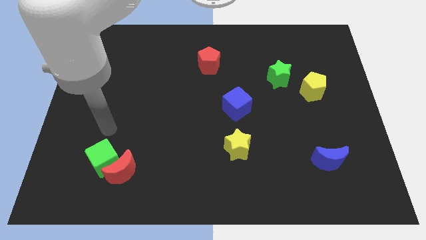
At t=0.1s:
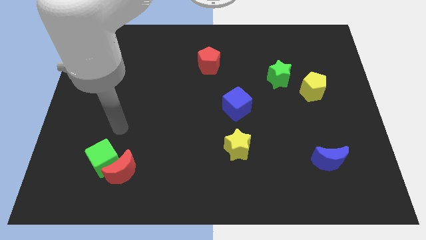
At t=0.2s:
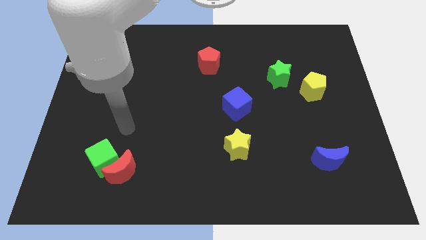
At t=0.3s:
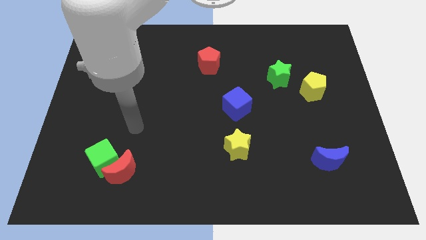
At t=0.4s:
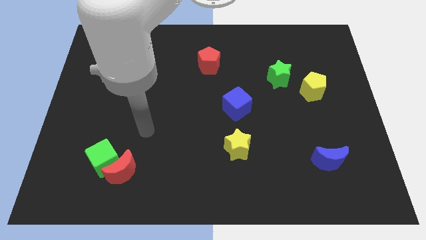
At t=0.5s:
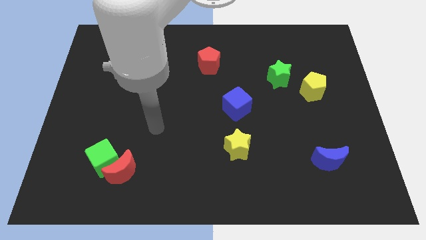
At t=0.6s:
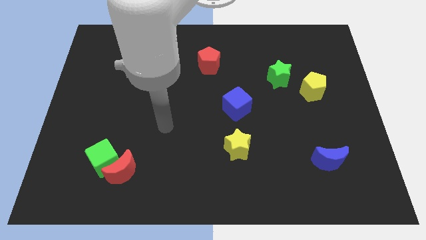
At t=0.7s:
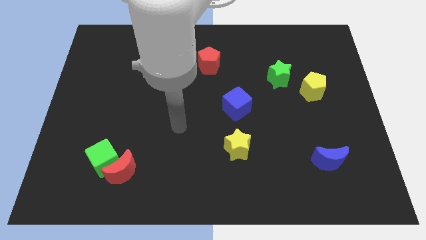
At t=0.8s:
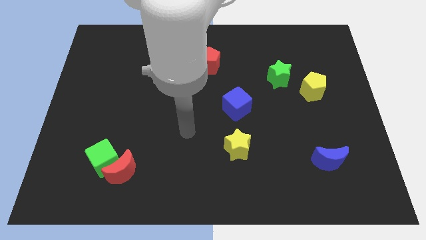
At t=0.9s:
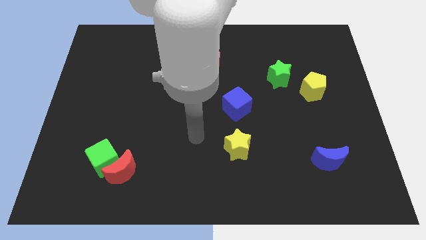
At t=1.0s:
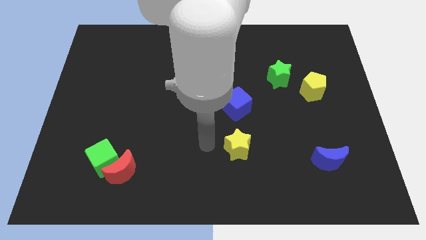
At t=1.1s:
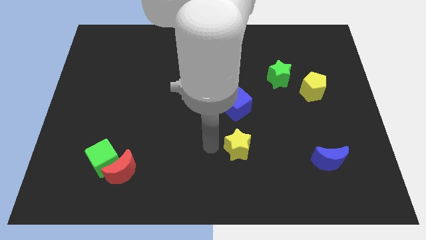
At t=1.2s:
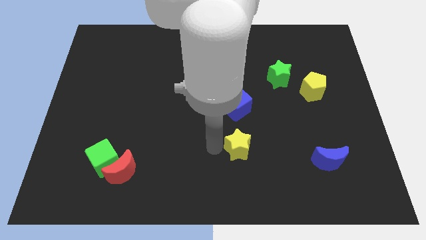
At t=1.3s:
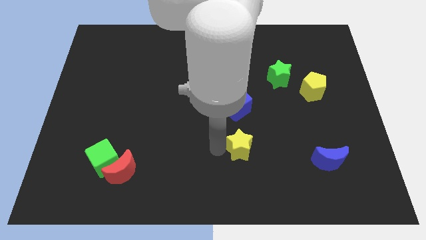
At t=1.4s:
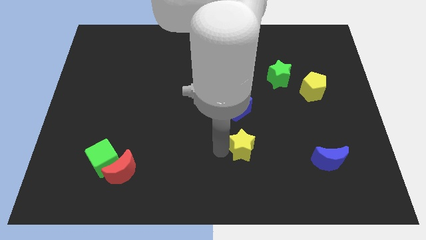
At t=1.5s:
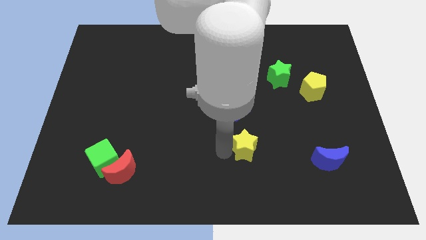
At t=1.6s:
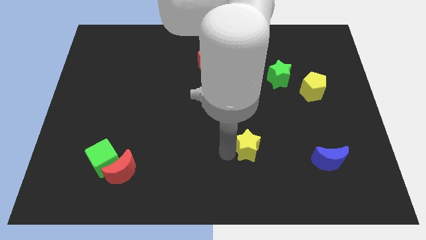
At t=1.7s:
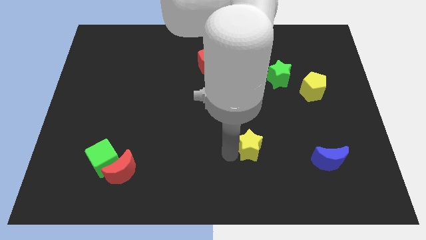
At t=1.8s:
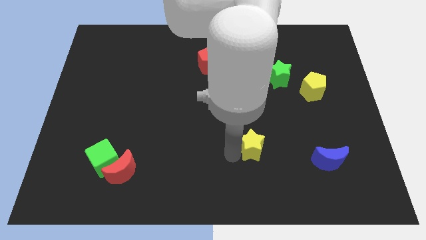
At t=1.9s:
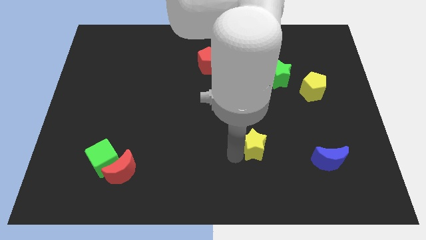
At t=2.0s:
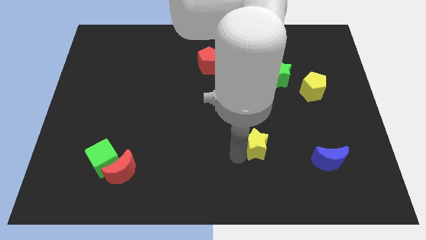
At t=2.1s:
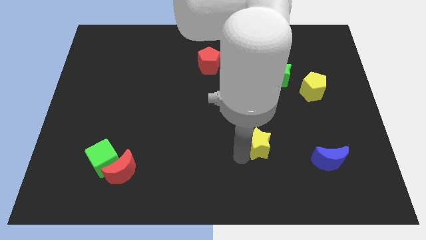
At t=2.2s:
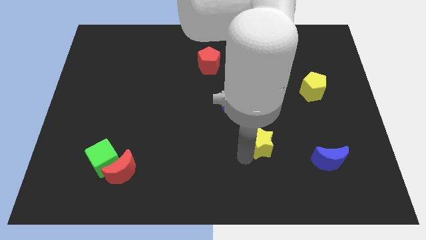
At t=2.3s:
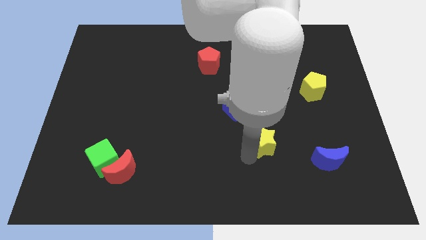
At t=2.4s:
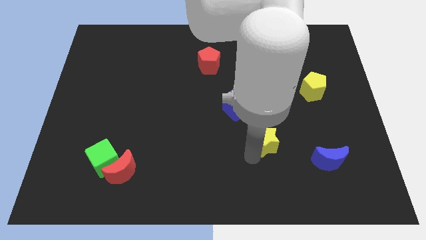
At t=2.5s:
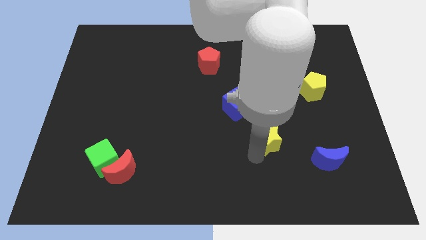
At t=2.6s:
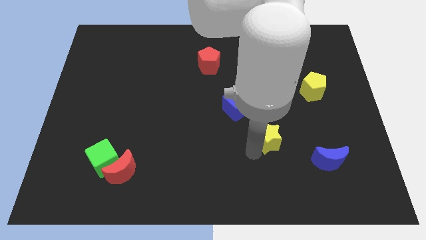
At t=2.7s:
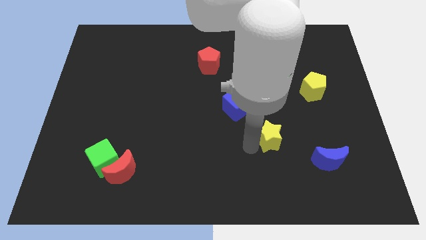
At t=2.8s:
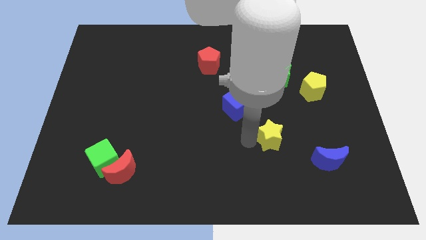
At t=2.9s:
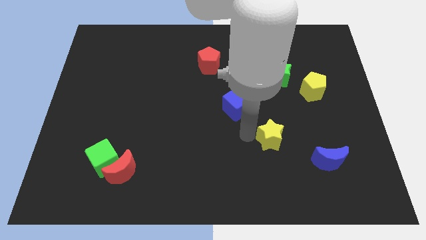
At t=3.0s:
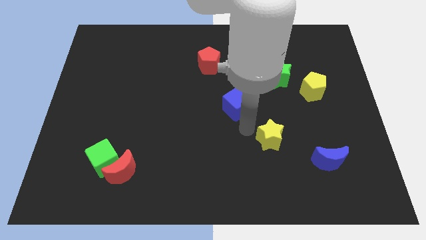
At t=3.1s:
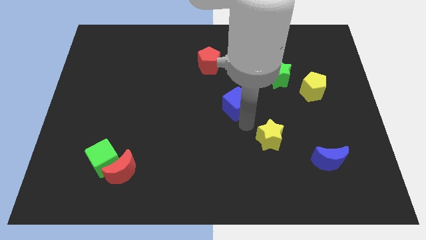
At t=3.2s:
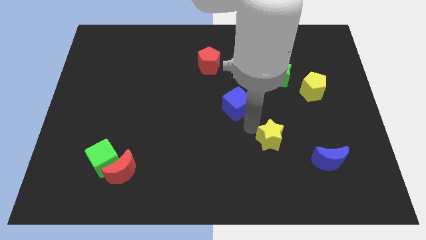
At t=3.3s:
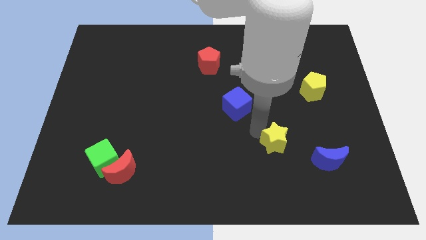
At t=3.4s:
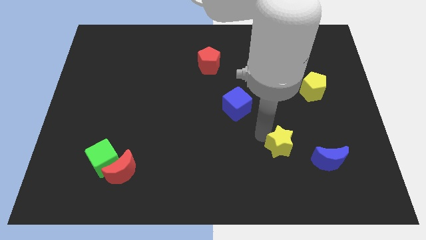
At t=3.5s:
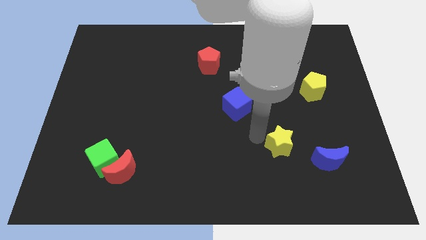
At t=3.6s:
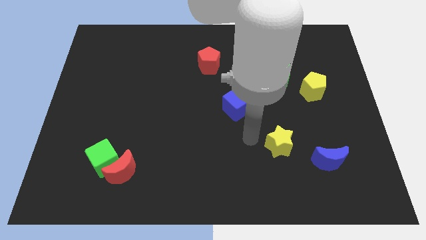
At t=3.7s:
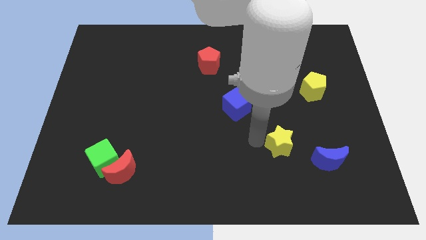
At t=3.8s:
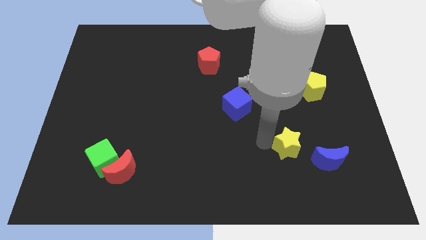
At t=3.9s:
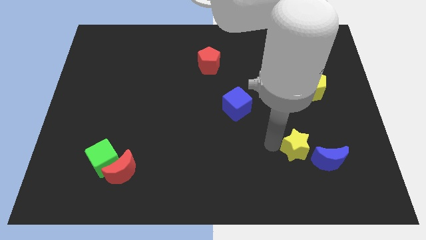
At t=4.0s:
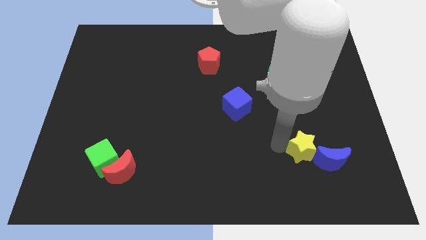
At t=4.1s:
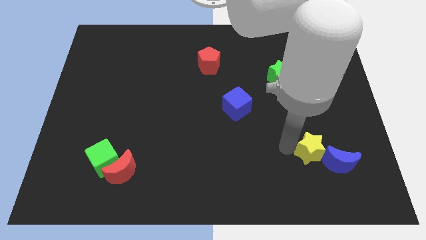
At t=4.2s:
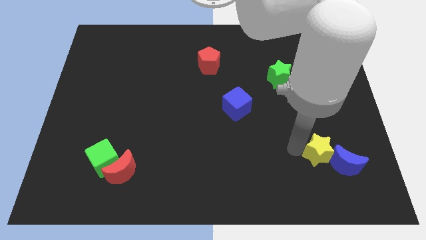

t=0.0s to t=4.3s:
put the yellow star close to the blue moon

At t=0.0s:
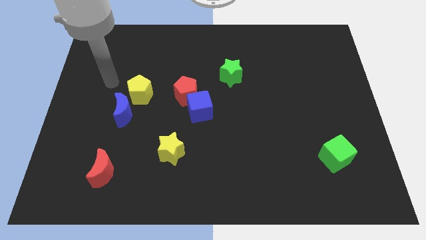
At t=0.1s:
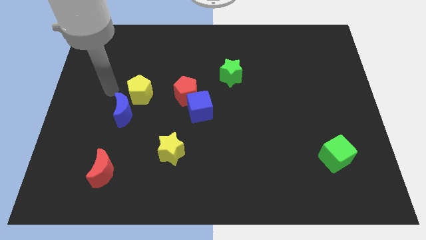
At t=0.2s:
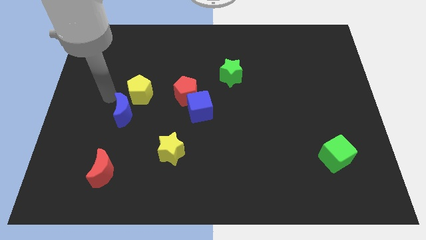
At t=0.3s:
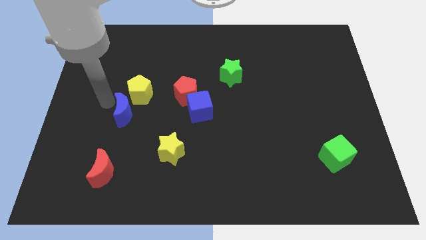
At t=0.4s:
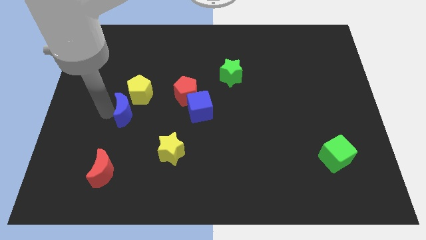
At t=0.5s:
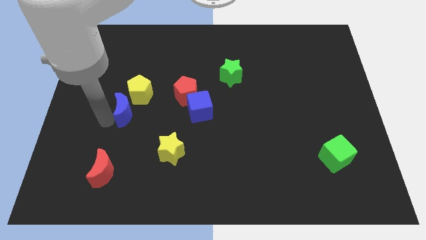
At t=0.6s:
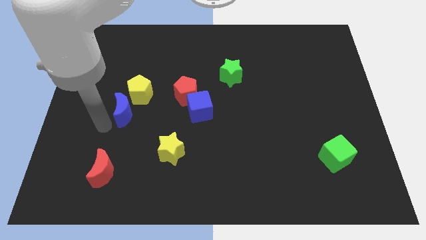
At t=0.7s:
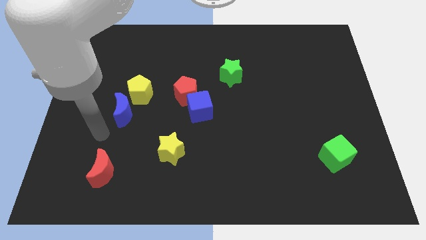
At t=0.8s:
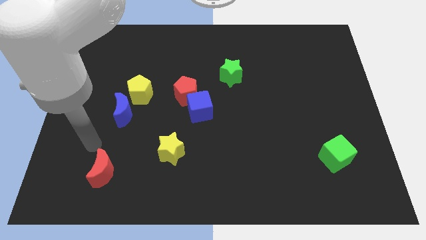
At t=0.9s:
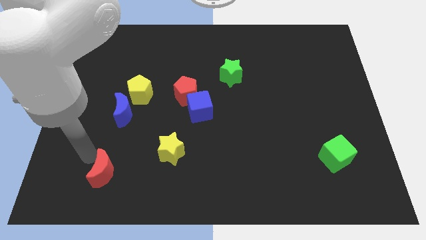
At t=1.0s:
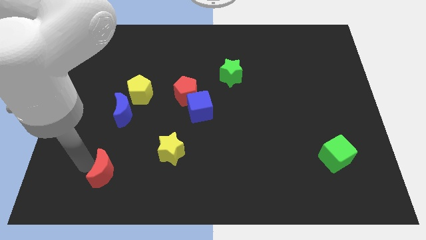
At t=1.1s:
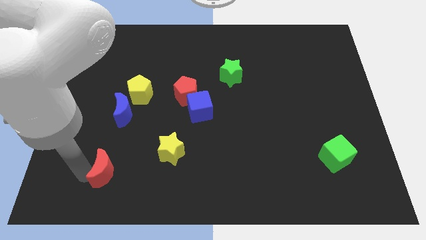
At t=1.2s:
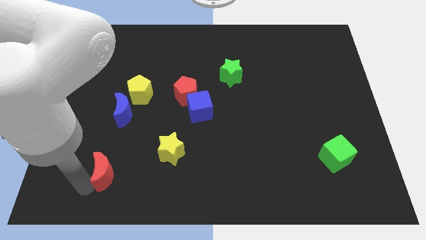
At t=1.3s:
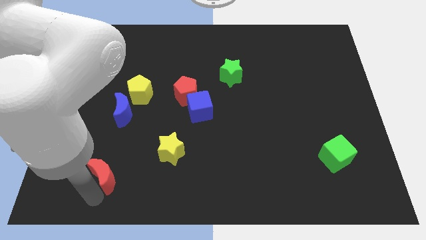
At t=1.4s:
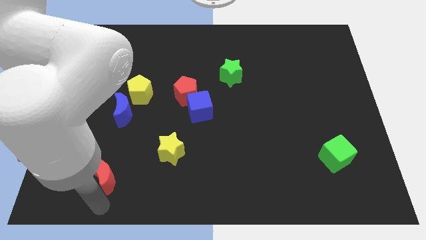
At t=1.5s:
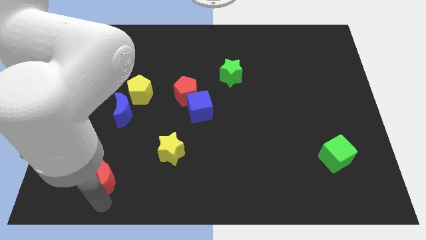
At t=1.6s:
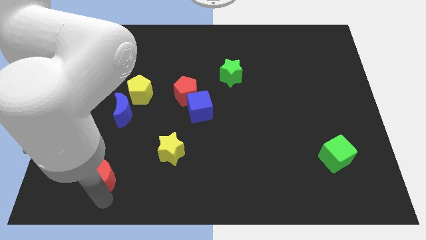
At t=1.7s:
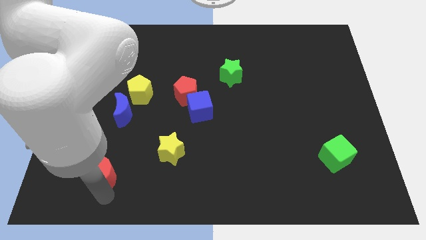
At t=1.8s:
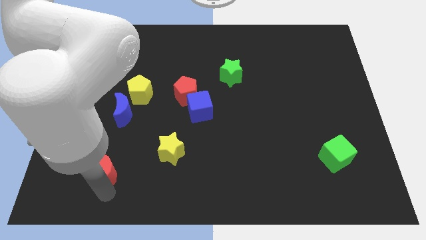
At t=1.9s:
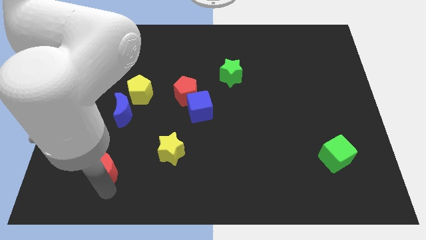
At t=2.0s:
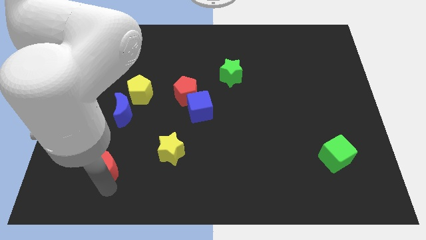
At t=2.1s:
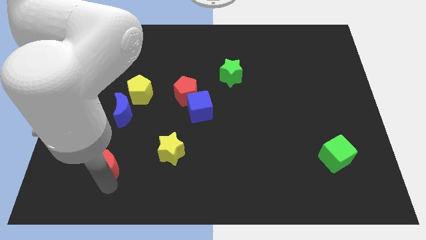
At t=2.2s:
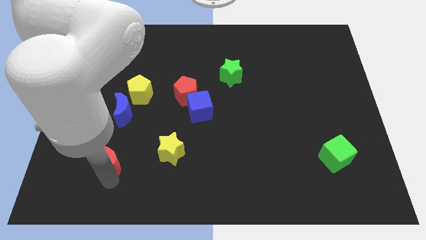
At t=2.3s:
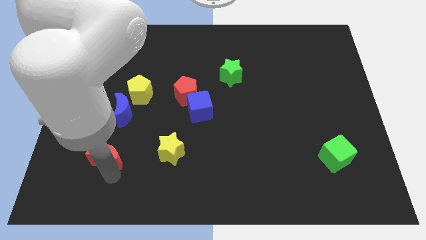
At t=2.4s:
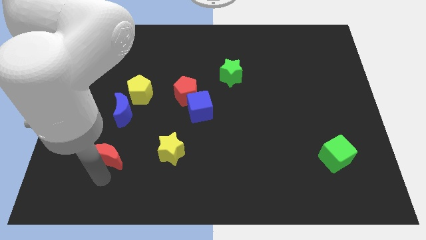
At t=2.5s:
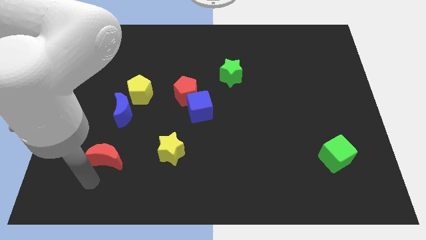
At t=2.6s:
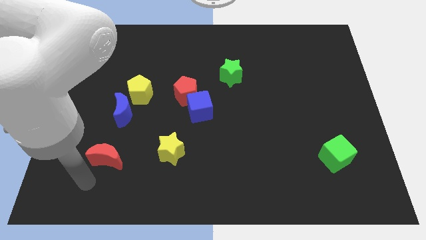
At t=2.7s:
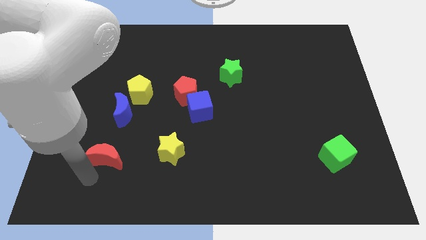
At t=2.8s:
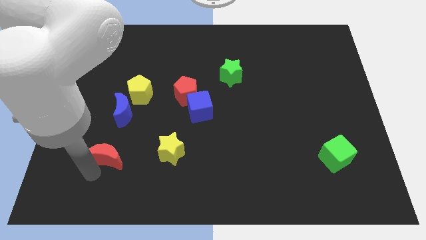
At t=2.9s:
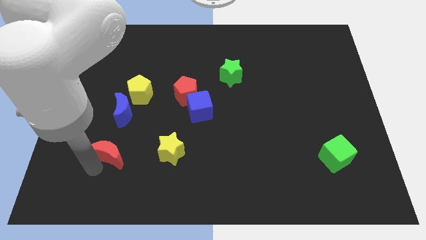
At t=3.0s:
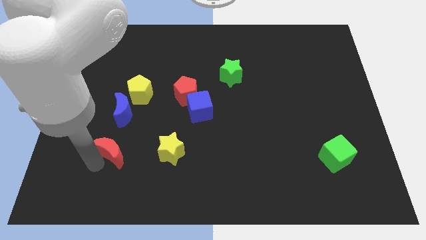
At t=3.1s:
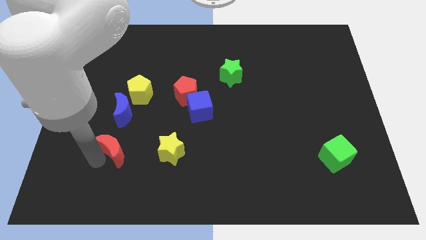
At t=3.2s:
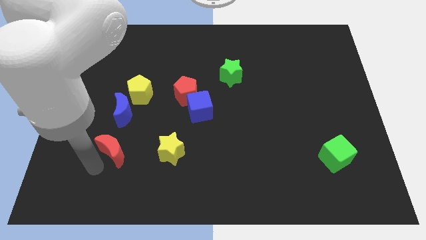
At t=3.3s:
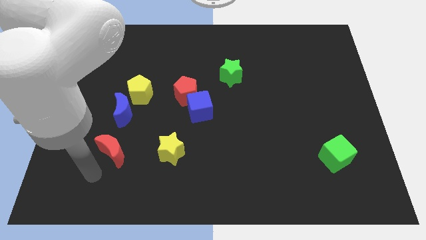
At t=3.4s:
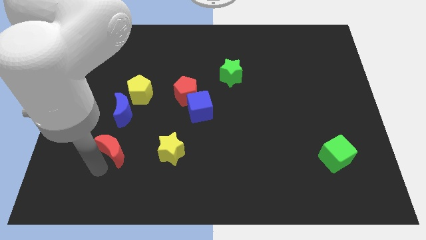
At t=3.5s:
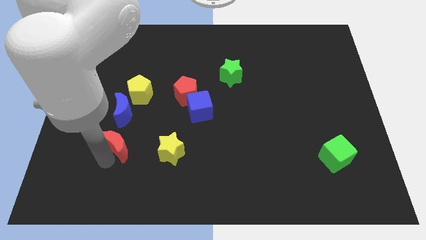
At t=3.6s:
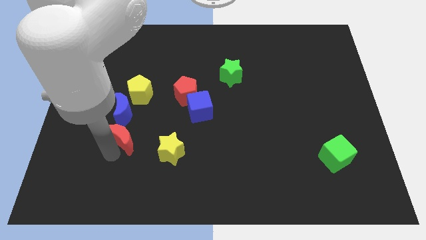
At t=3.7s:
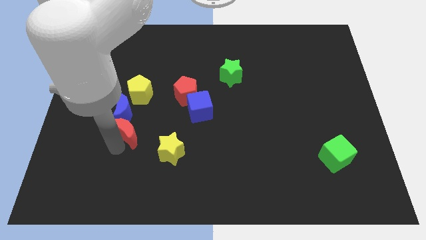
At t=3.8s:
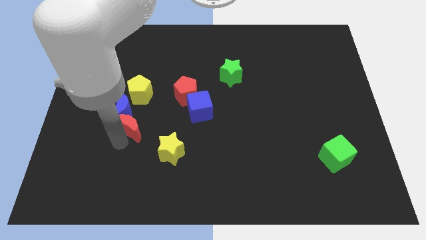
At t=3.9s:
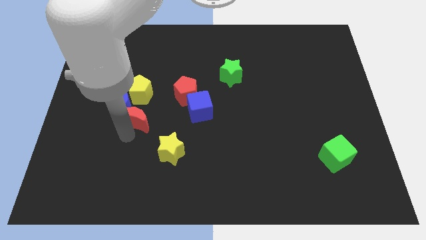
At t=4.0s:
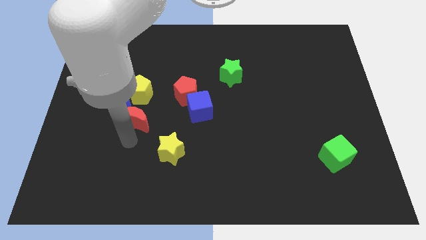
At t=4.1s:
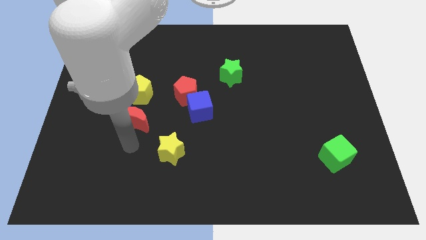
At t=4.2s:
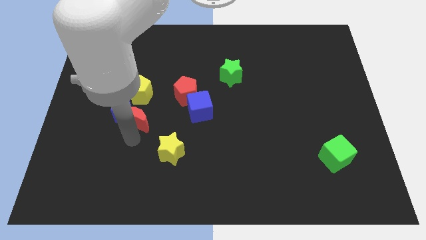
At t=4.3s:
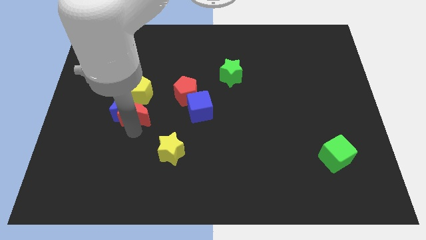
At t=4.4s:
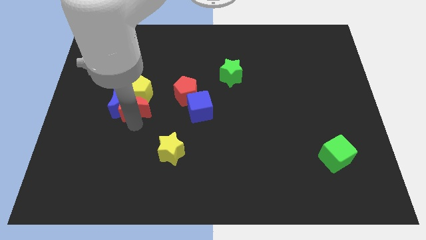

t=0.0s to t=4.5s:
put the red moon close to the yellow pentagon
